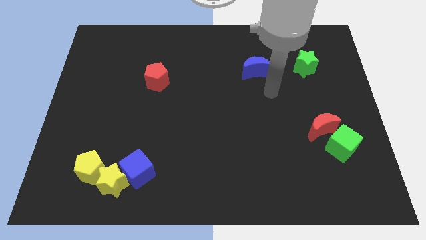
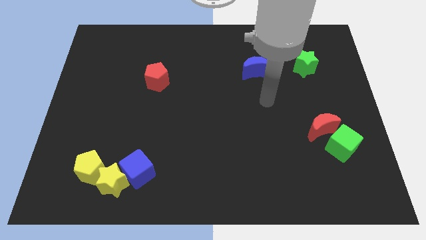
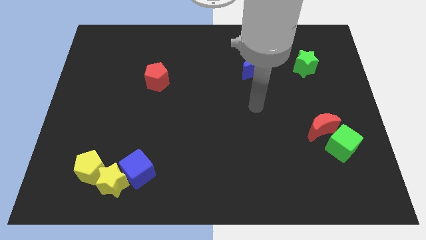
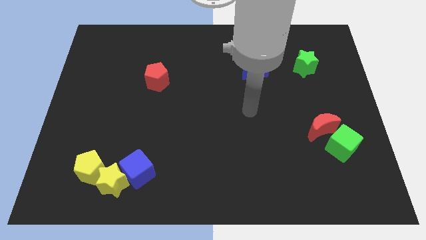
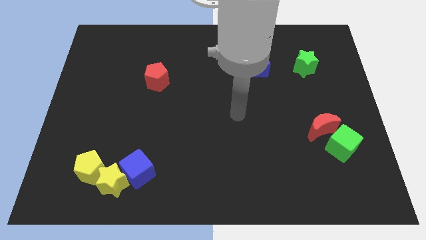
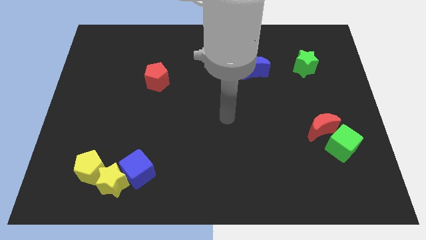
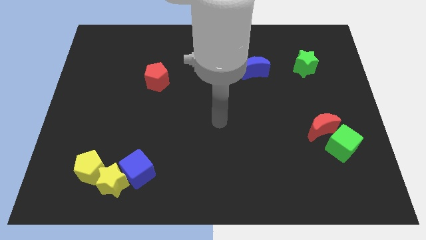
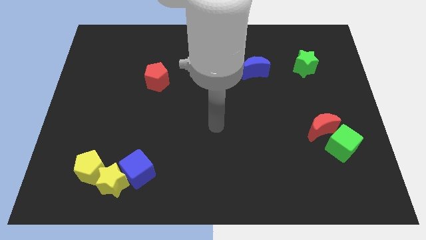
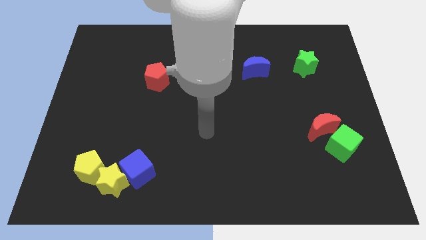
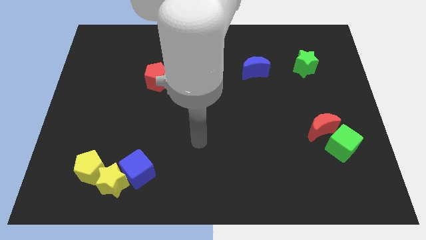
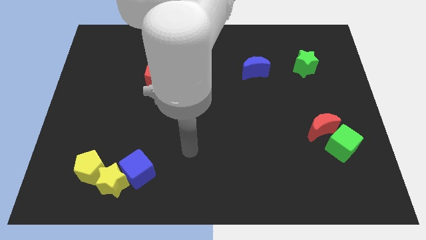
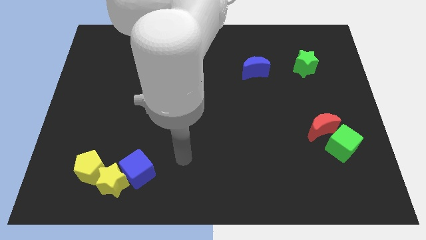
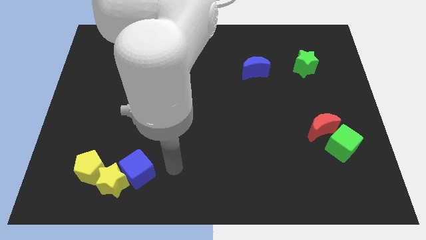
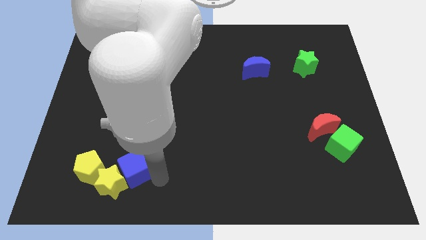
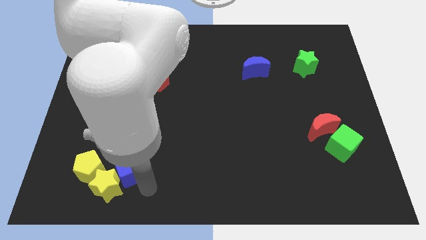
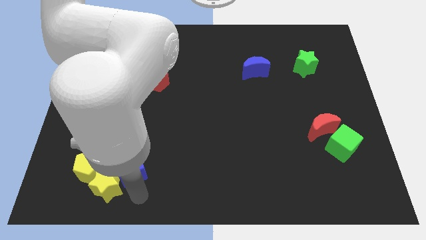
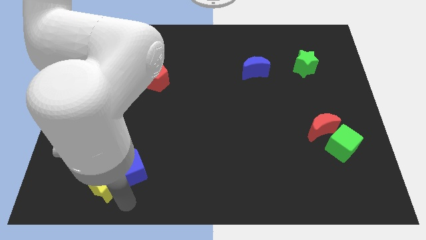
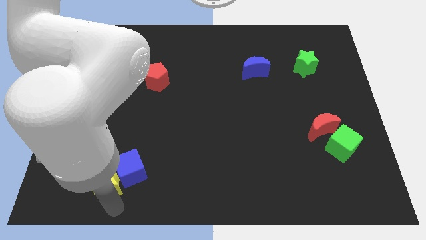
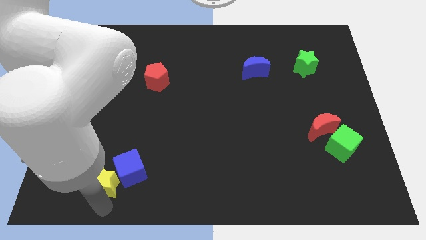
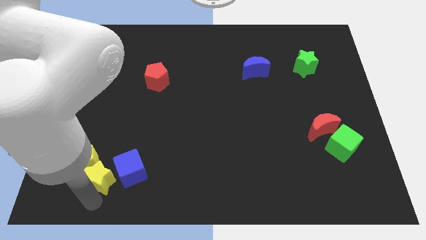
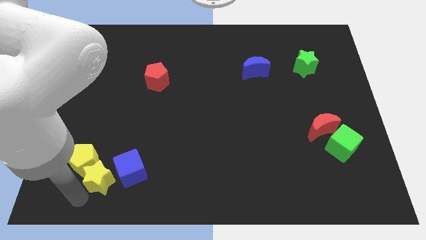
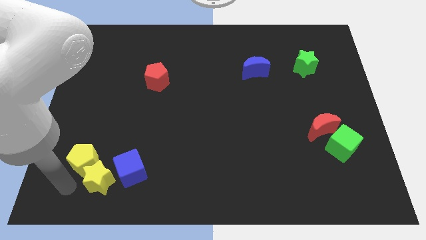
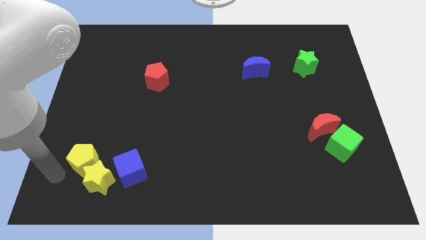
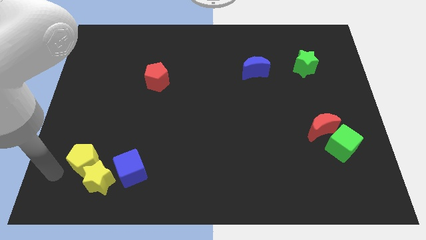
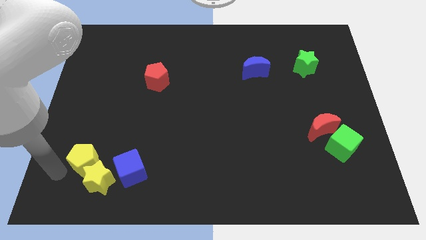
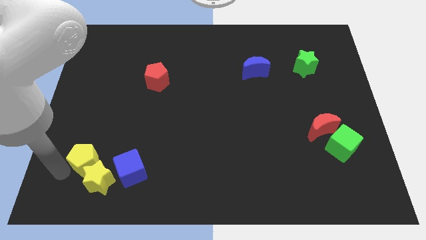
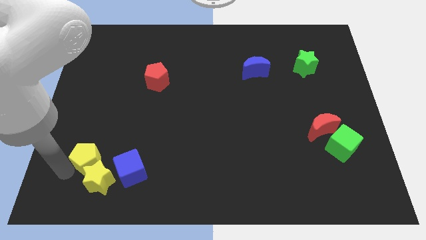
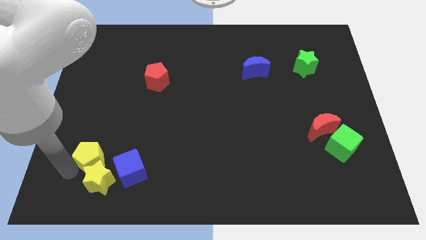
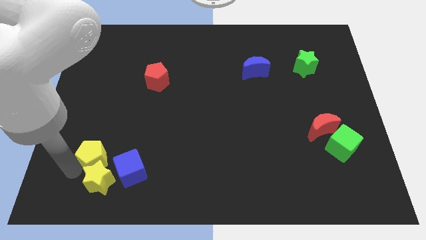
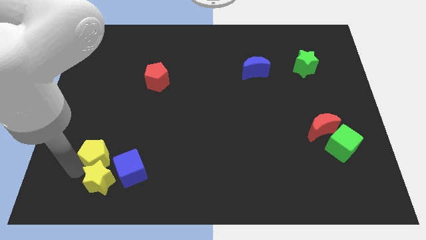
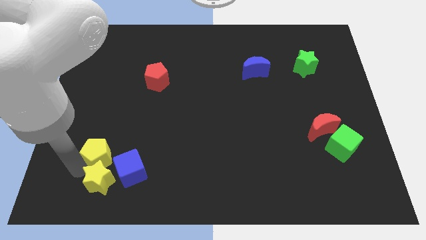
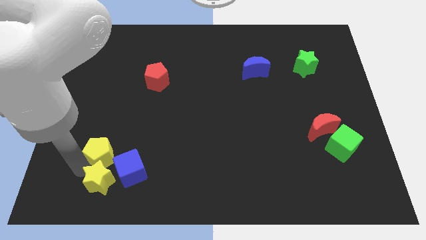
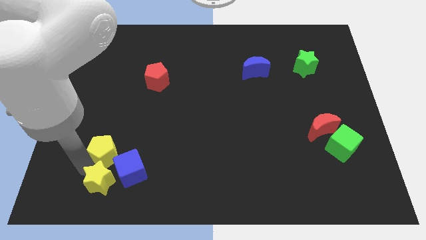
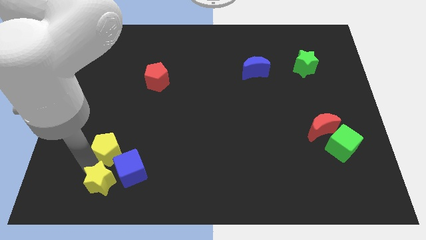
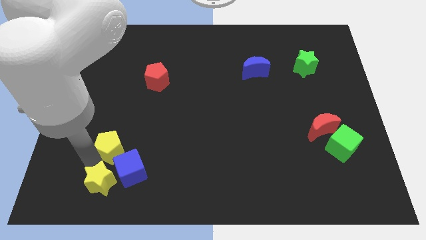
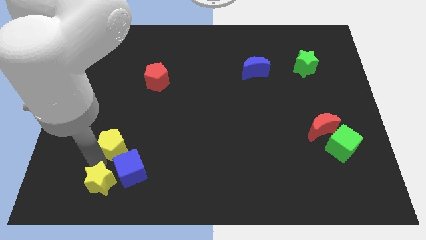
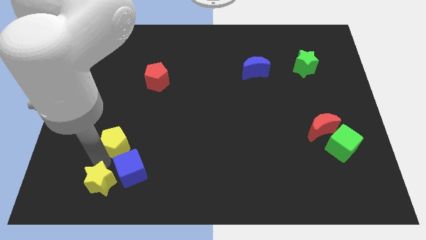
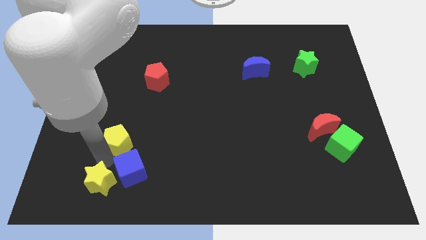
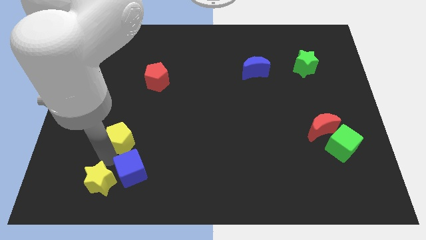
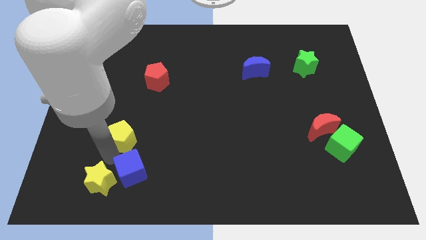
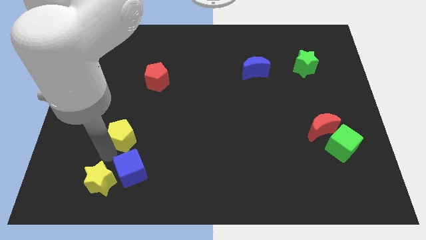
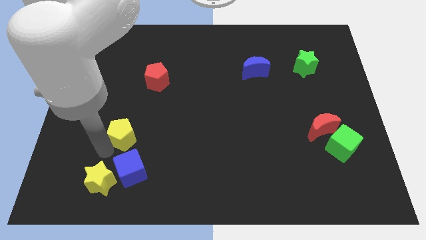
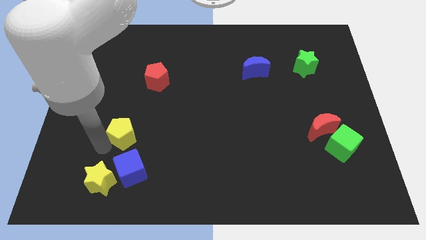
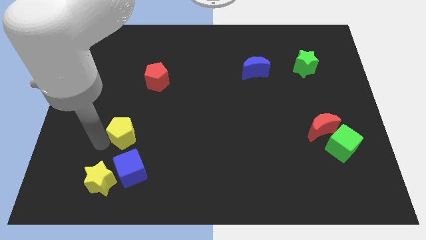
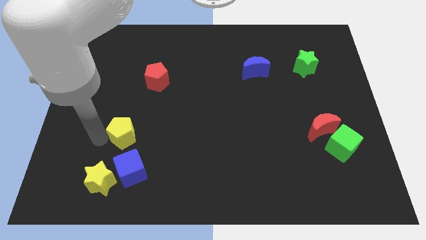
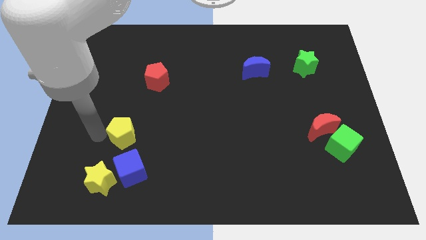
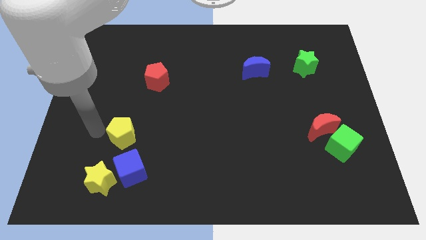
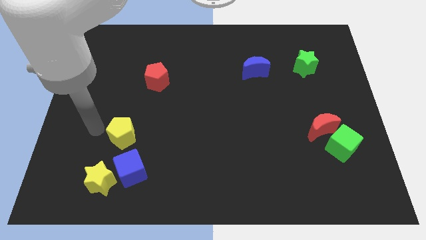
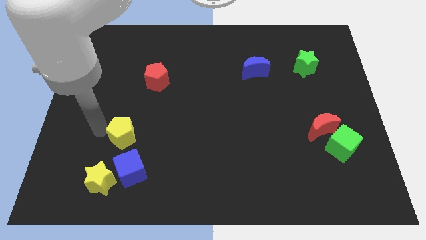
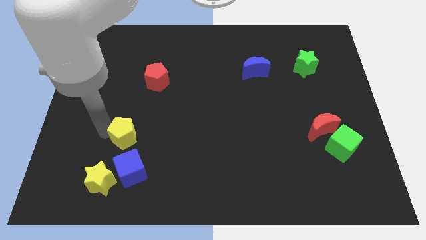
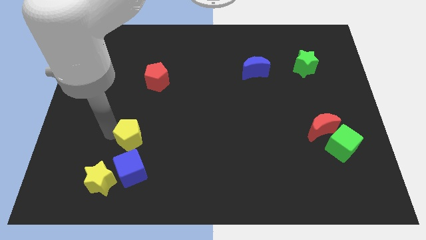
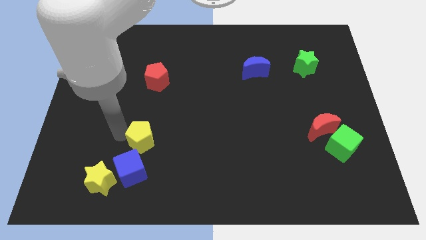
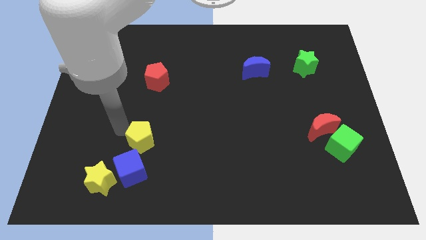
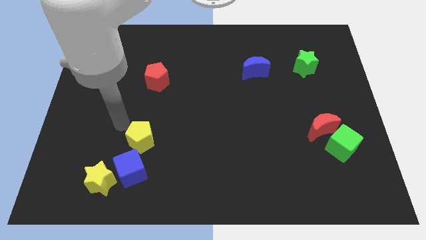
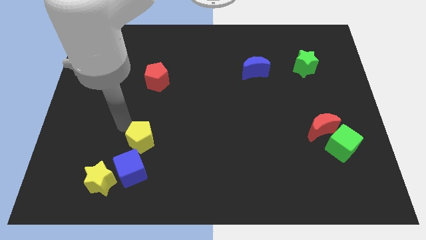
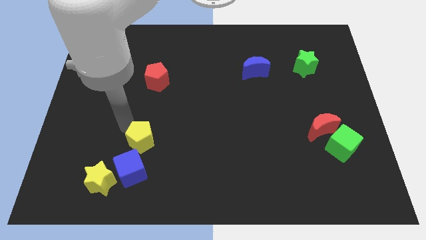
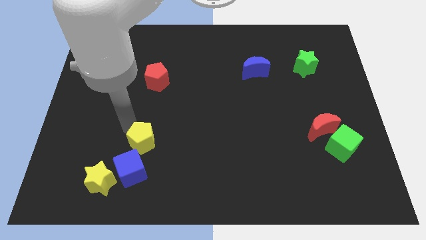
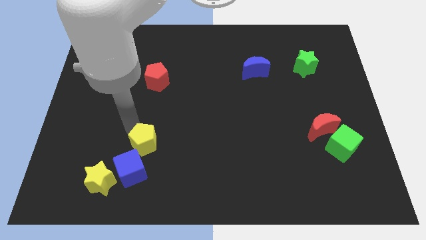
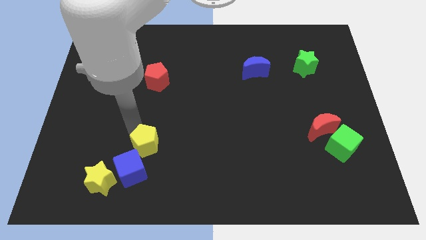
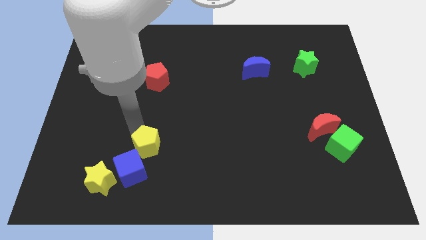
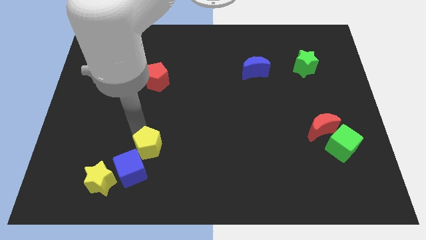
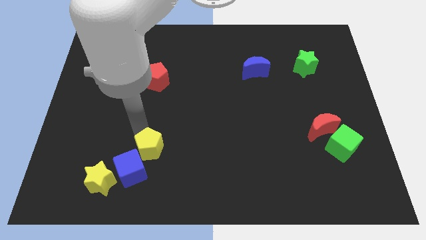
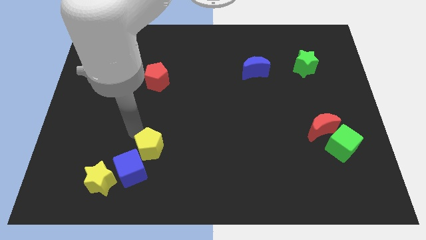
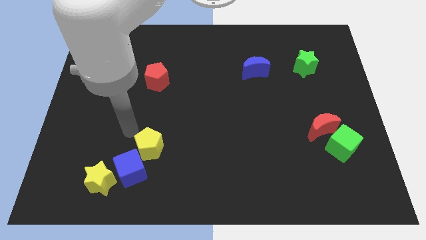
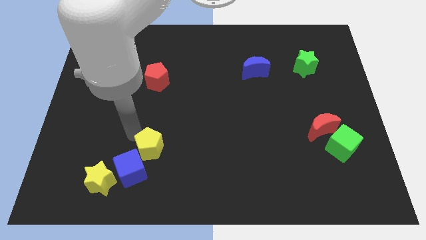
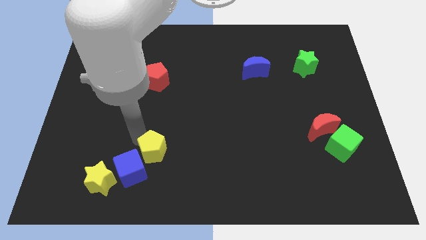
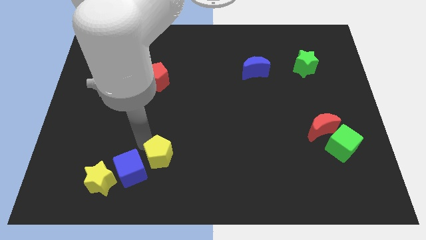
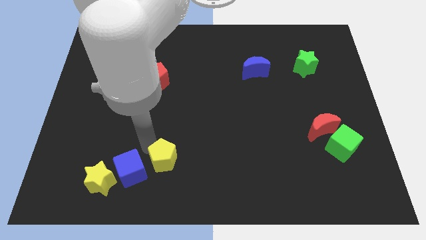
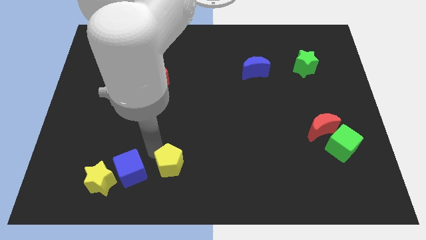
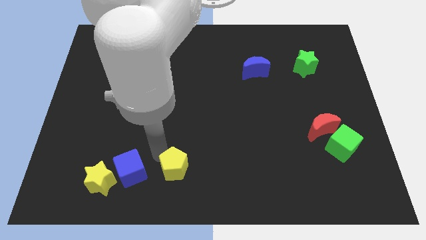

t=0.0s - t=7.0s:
put the yellow pentagon to the bottom
